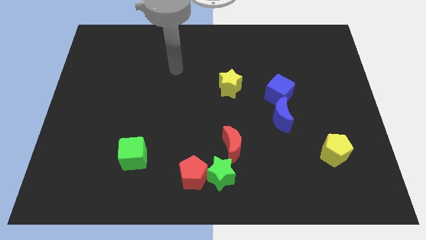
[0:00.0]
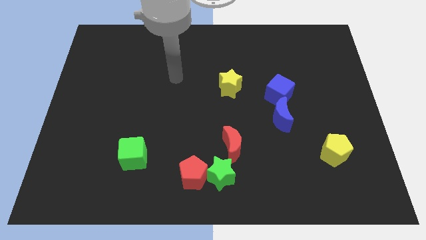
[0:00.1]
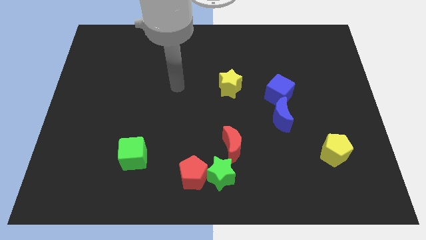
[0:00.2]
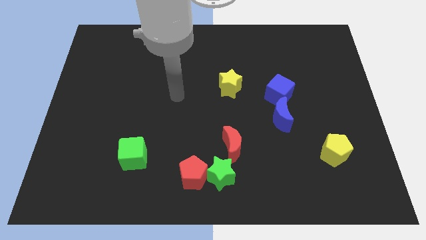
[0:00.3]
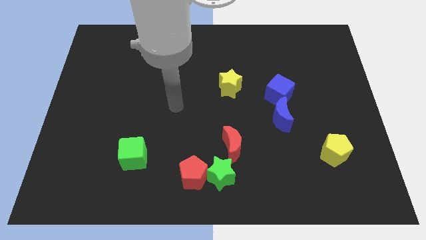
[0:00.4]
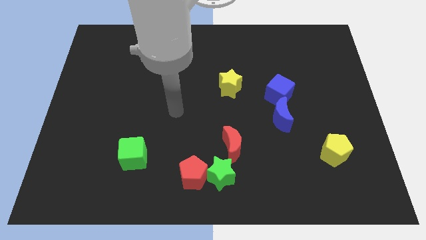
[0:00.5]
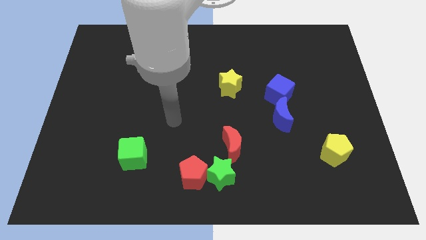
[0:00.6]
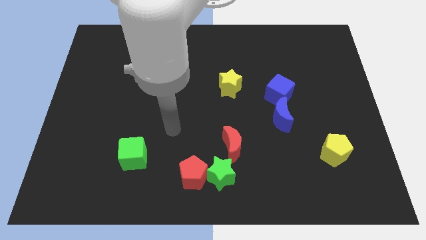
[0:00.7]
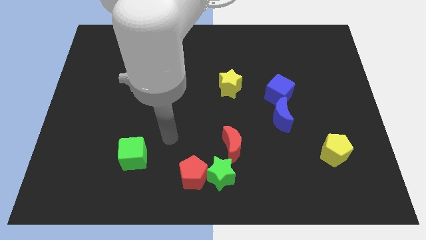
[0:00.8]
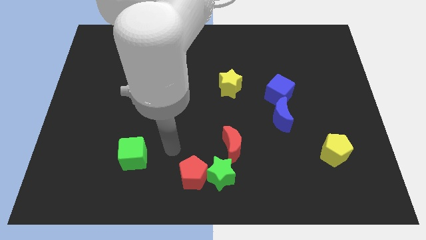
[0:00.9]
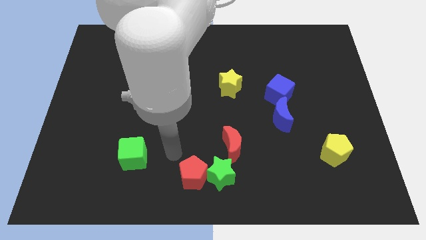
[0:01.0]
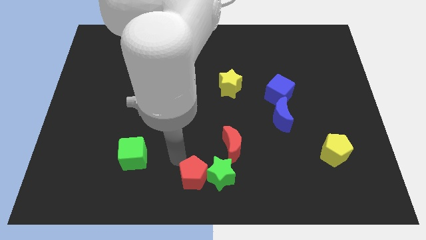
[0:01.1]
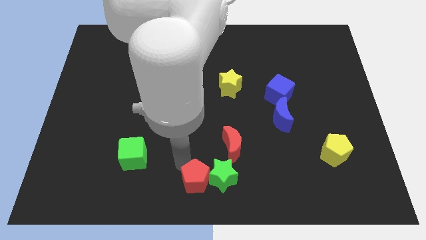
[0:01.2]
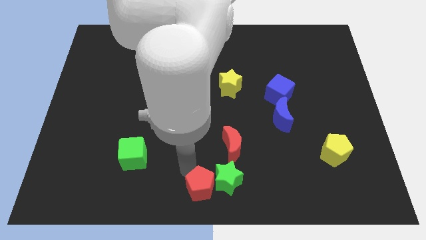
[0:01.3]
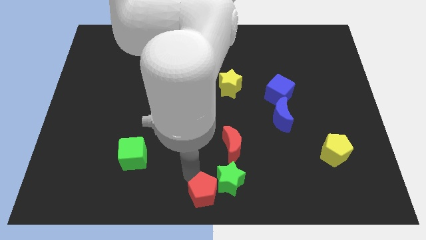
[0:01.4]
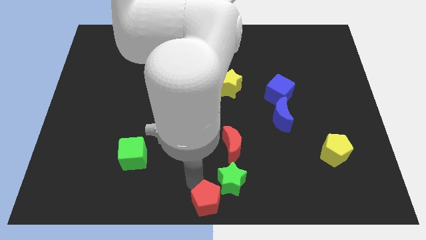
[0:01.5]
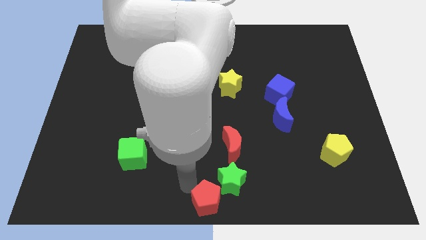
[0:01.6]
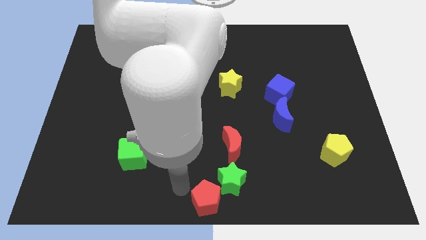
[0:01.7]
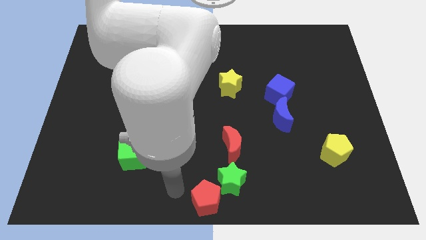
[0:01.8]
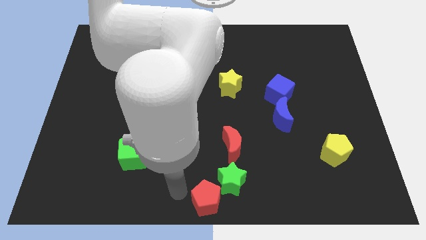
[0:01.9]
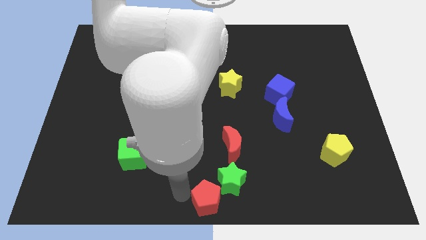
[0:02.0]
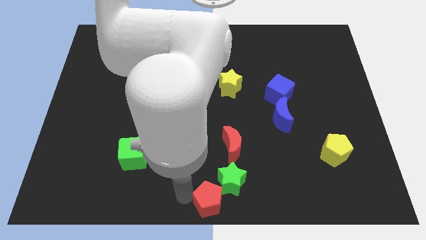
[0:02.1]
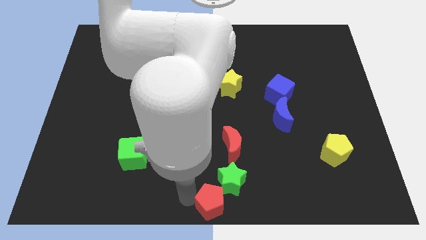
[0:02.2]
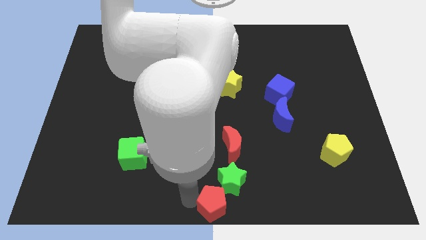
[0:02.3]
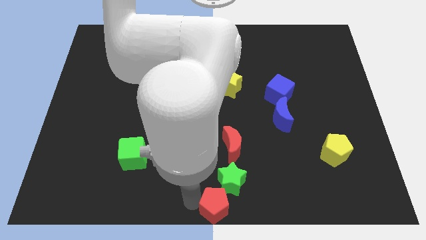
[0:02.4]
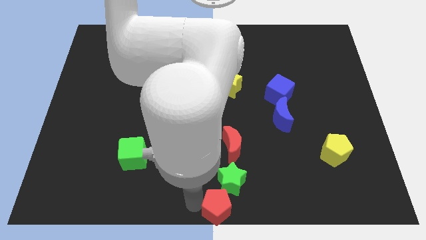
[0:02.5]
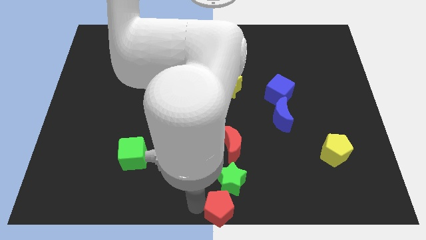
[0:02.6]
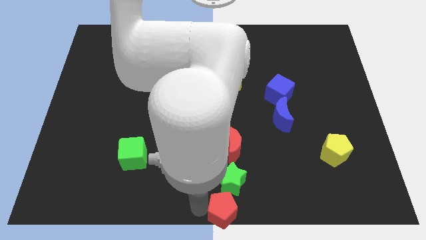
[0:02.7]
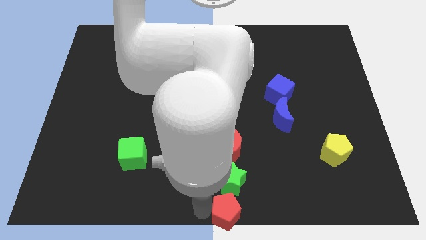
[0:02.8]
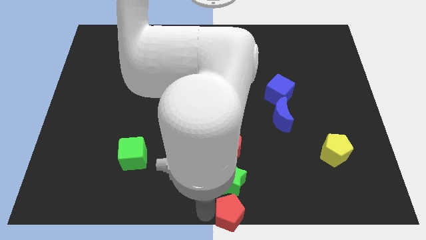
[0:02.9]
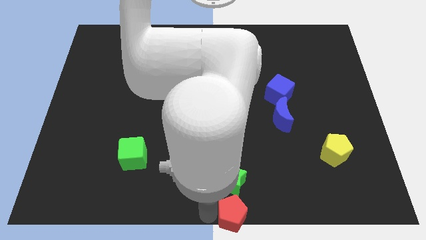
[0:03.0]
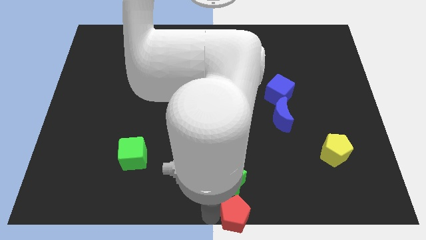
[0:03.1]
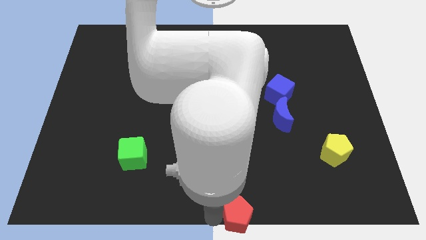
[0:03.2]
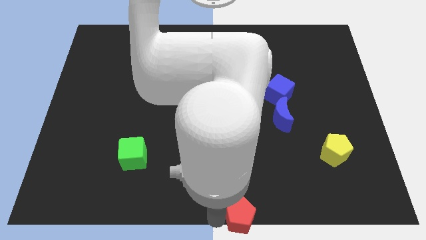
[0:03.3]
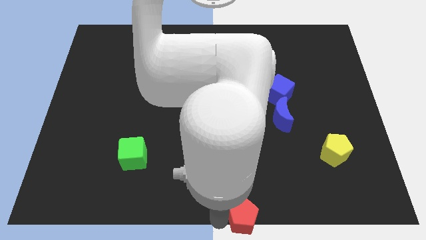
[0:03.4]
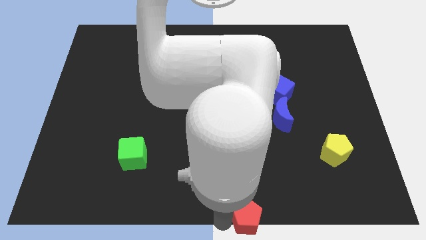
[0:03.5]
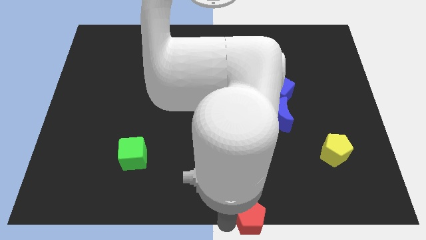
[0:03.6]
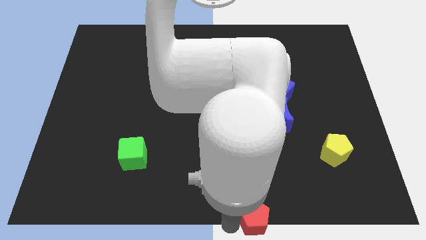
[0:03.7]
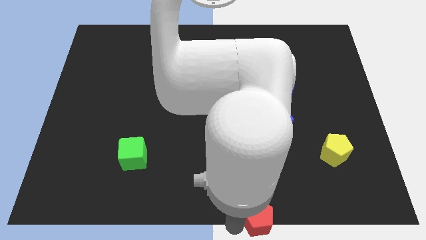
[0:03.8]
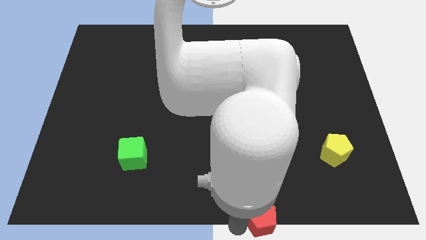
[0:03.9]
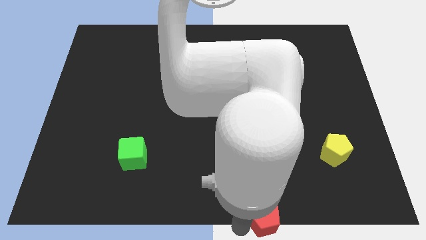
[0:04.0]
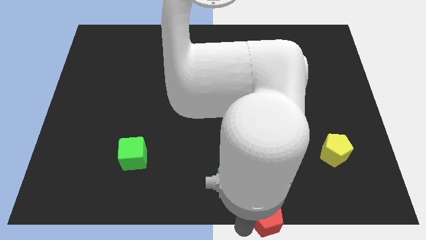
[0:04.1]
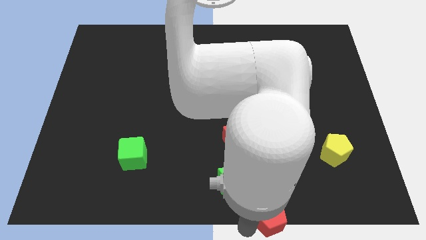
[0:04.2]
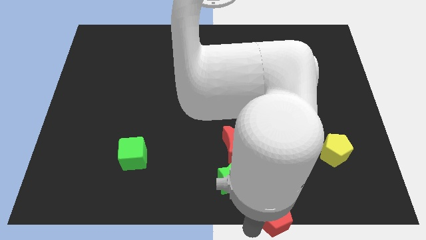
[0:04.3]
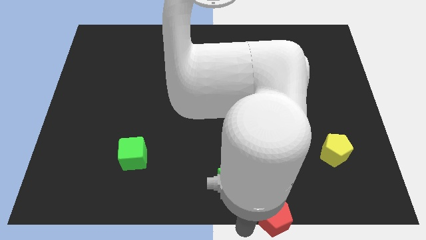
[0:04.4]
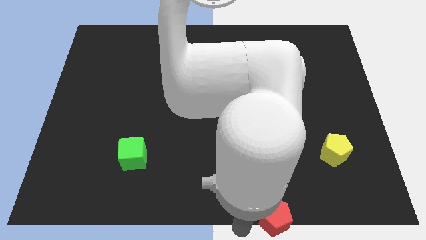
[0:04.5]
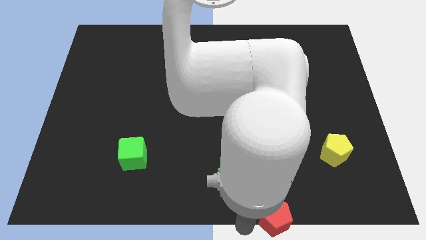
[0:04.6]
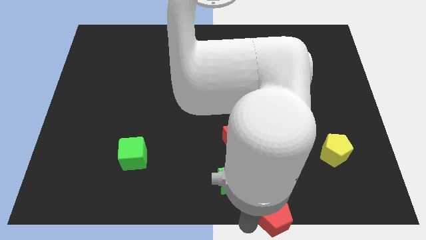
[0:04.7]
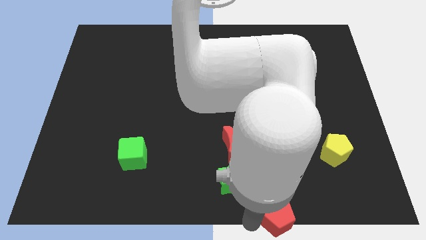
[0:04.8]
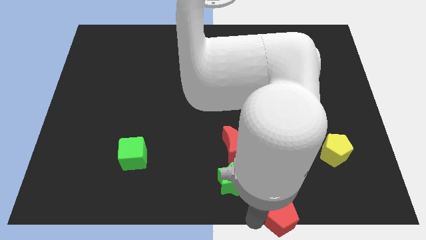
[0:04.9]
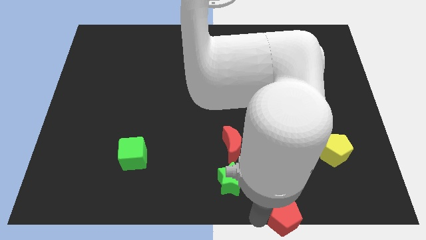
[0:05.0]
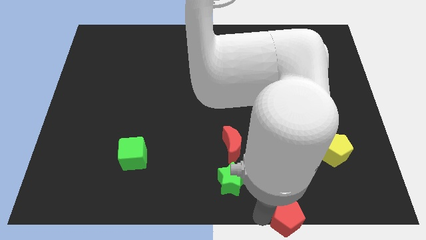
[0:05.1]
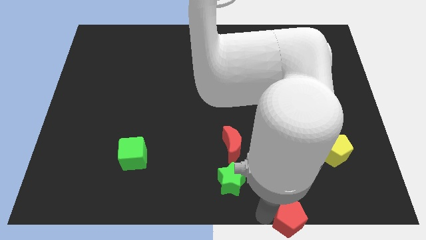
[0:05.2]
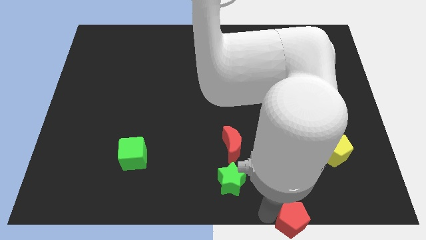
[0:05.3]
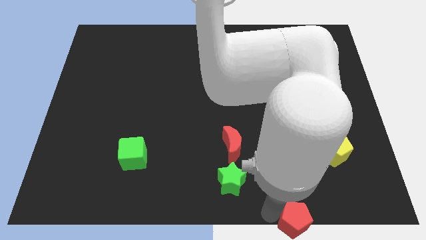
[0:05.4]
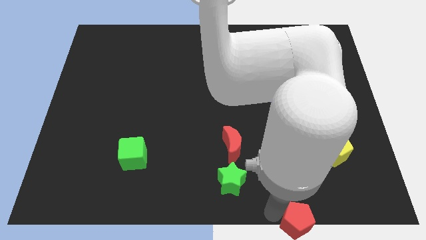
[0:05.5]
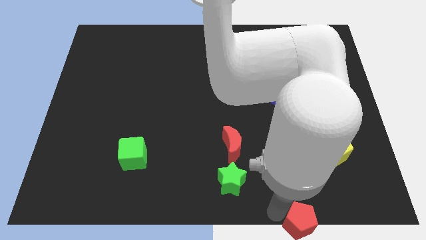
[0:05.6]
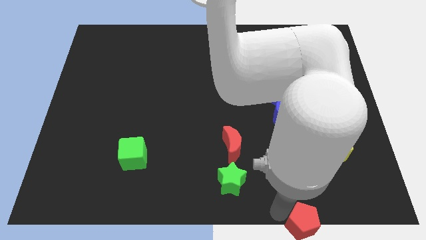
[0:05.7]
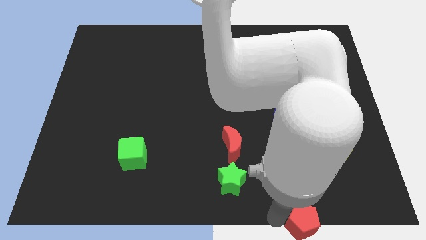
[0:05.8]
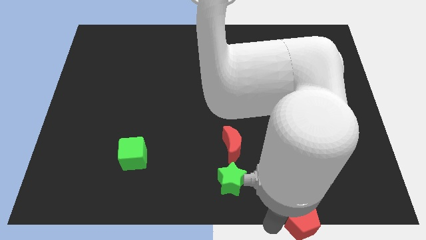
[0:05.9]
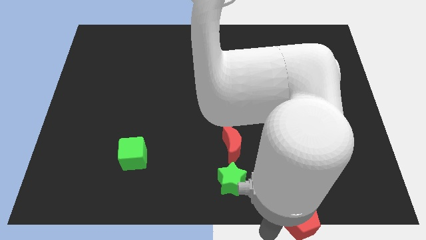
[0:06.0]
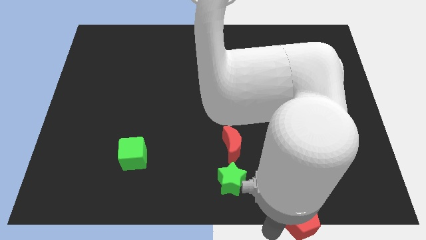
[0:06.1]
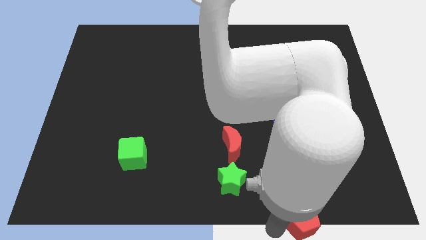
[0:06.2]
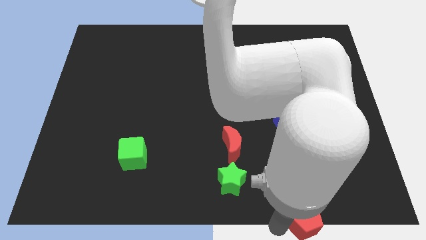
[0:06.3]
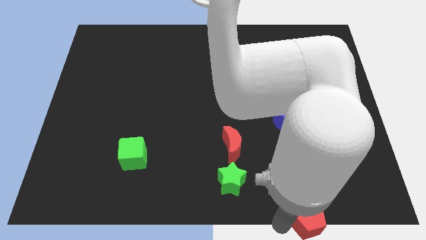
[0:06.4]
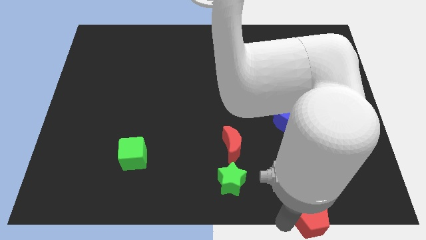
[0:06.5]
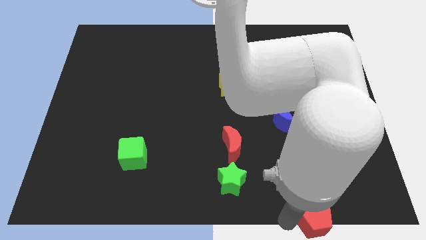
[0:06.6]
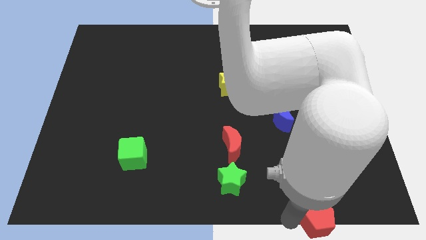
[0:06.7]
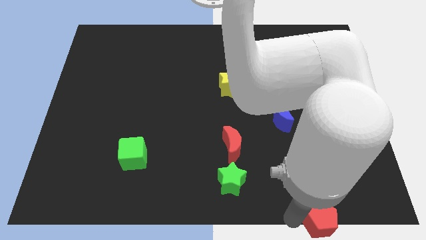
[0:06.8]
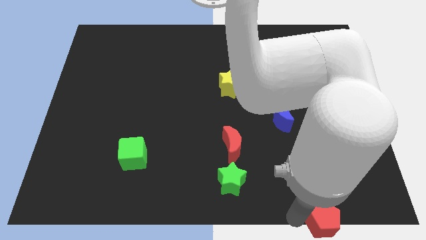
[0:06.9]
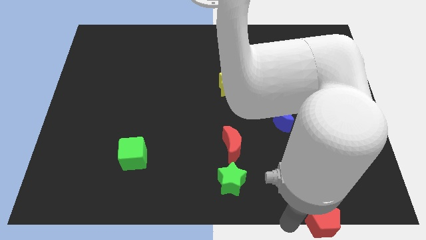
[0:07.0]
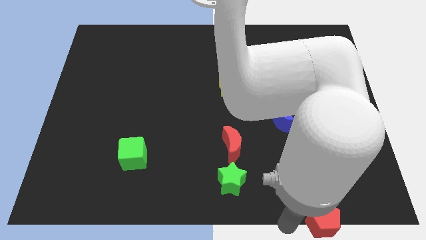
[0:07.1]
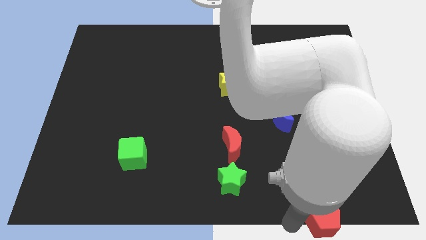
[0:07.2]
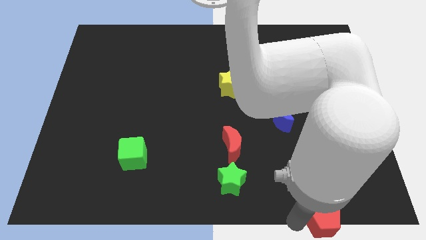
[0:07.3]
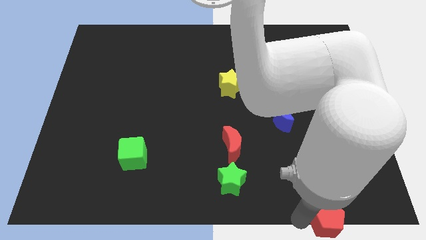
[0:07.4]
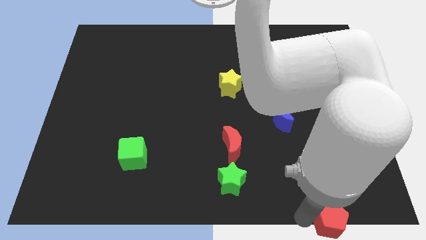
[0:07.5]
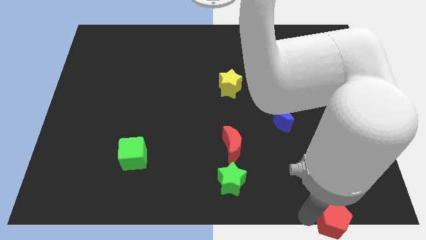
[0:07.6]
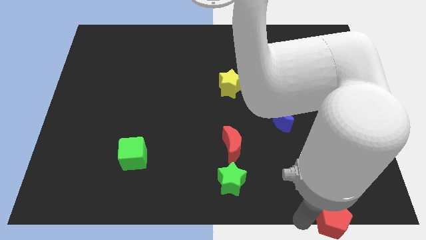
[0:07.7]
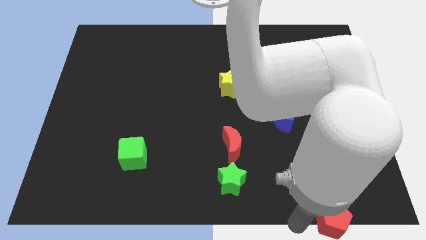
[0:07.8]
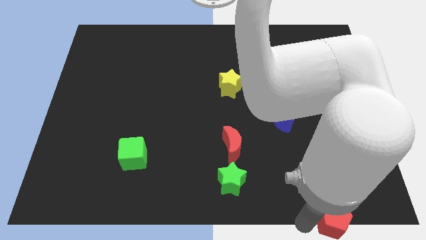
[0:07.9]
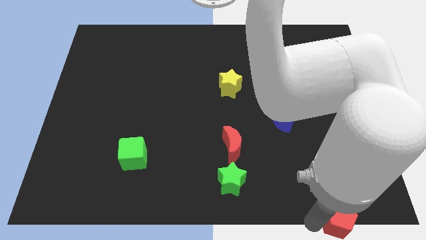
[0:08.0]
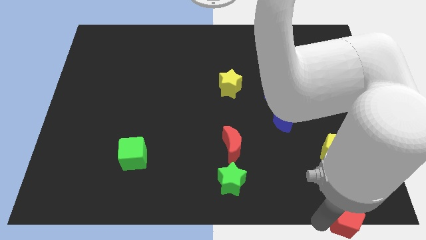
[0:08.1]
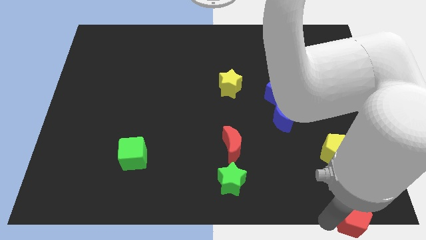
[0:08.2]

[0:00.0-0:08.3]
push the red pentagon to the lower right corner
